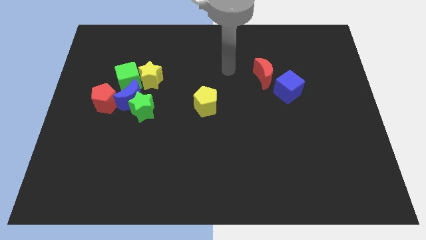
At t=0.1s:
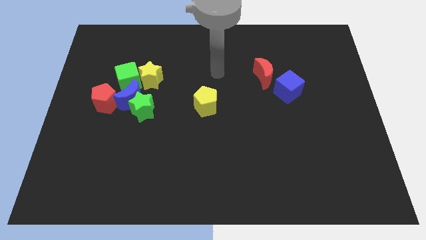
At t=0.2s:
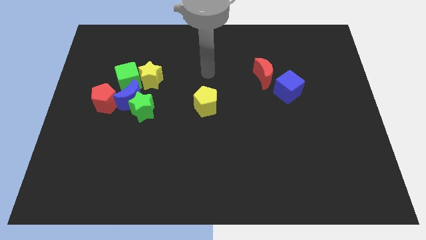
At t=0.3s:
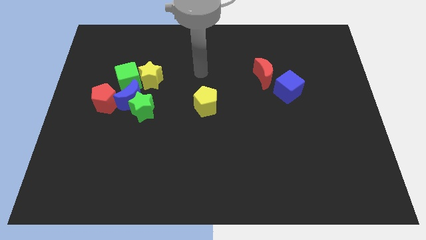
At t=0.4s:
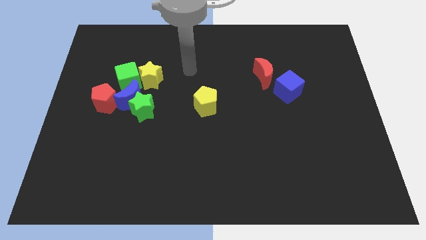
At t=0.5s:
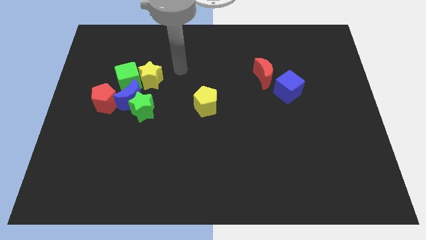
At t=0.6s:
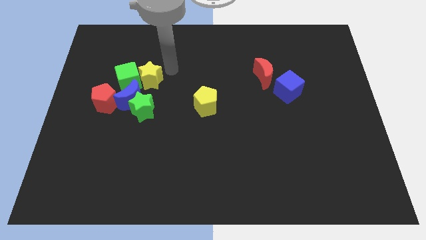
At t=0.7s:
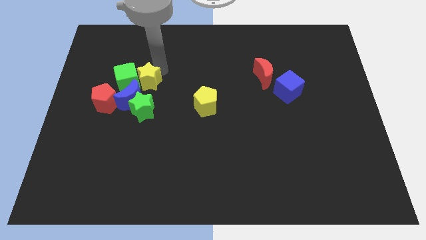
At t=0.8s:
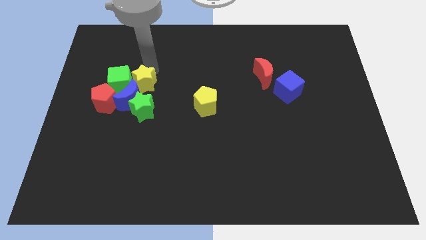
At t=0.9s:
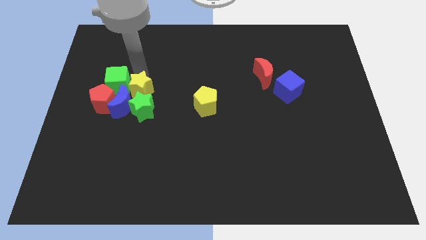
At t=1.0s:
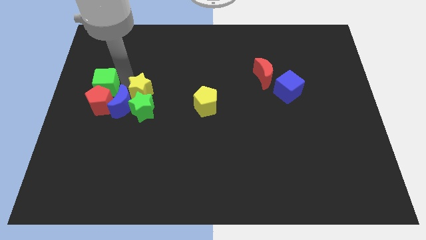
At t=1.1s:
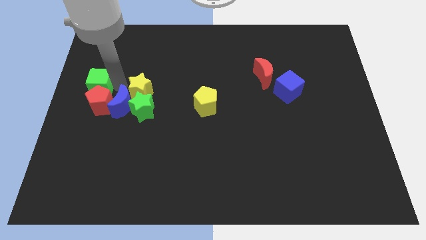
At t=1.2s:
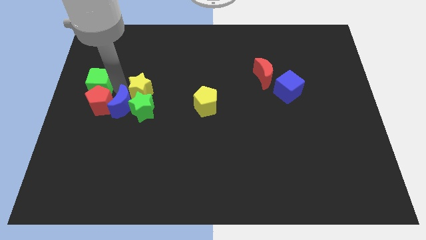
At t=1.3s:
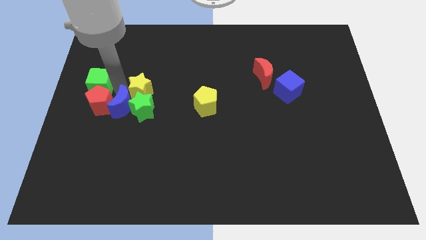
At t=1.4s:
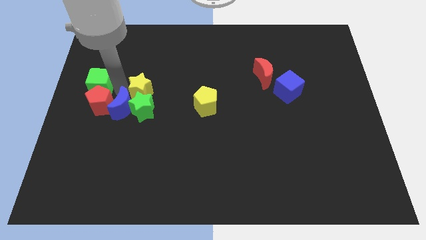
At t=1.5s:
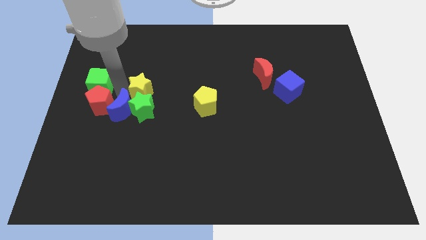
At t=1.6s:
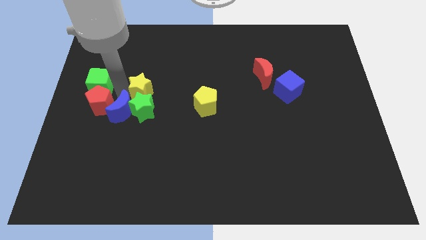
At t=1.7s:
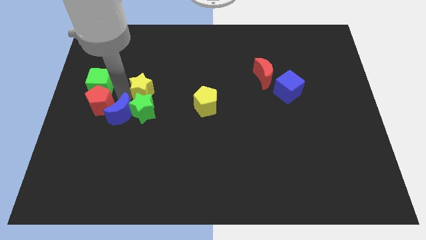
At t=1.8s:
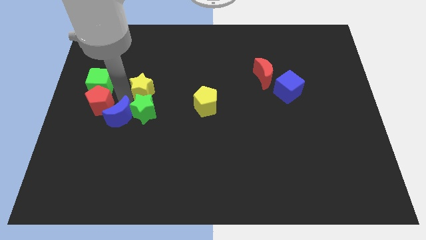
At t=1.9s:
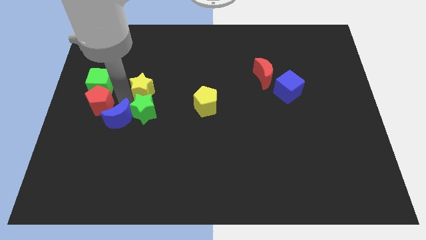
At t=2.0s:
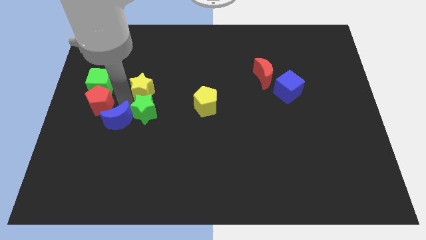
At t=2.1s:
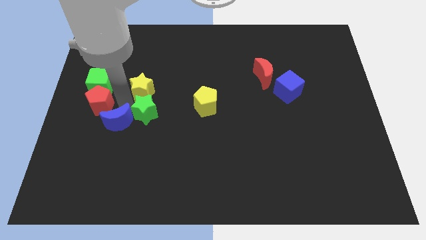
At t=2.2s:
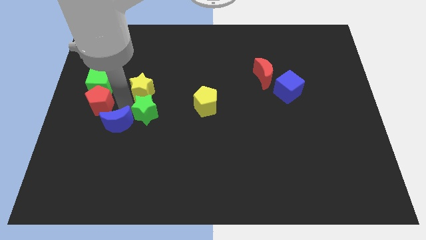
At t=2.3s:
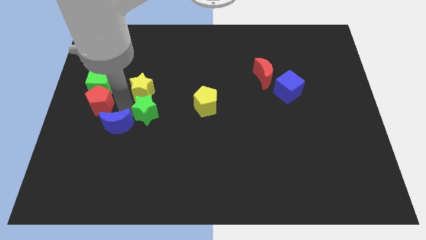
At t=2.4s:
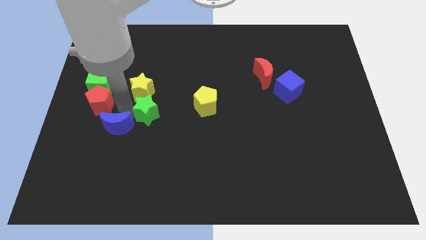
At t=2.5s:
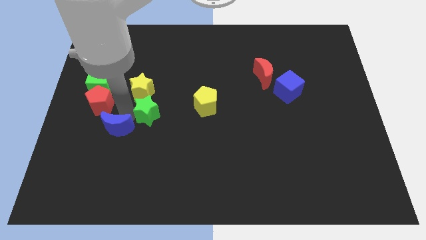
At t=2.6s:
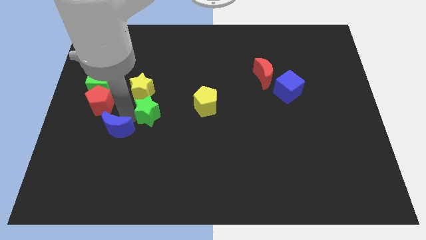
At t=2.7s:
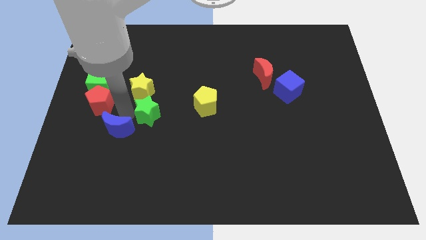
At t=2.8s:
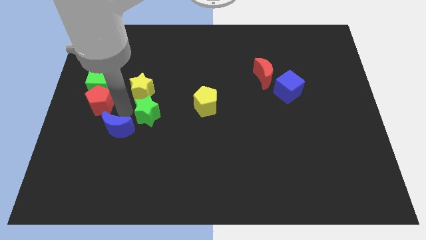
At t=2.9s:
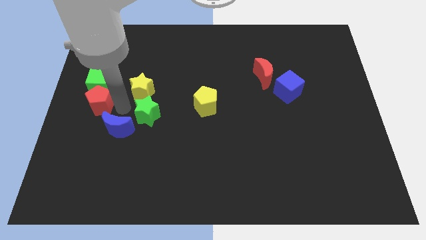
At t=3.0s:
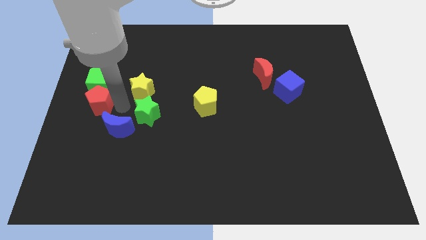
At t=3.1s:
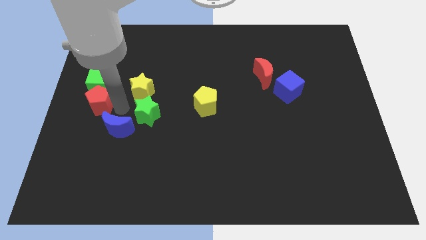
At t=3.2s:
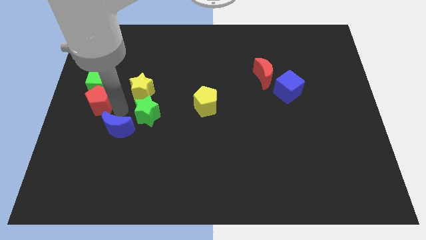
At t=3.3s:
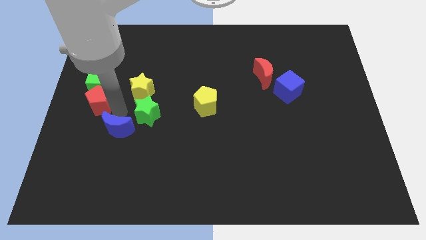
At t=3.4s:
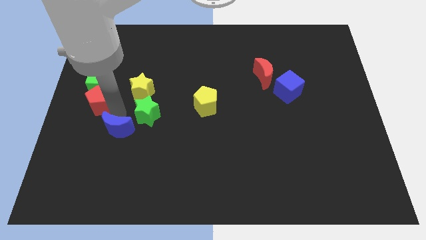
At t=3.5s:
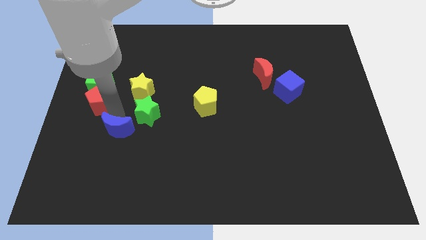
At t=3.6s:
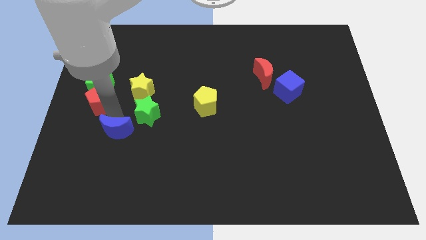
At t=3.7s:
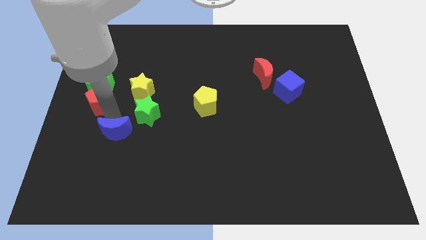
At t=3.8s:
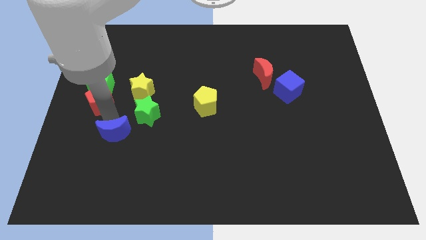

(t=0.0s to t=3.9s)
separate the blue moon from the group of blocks

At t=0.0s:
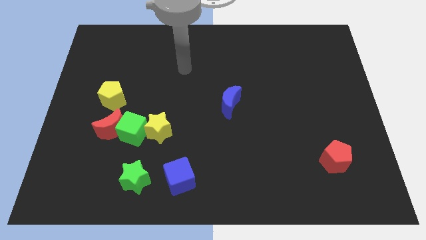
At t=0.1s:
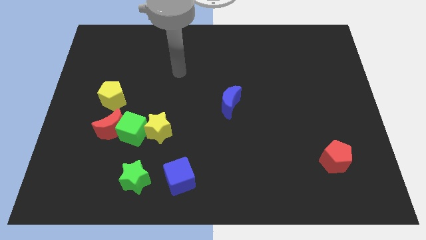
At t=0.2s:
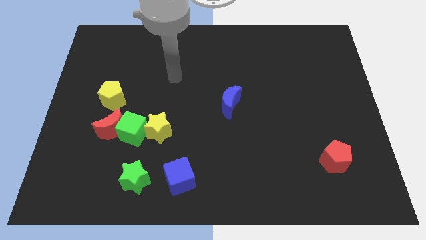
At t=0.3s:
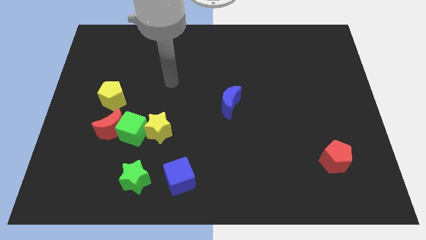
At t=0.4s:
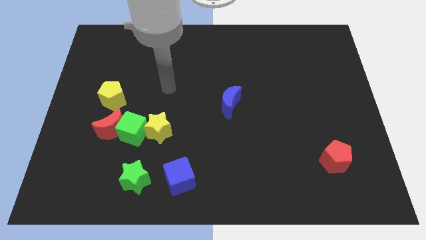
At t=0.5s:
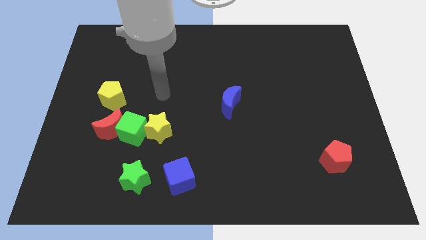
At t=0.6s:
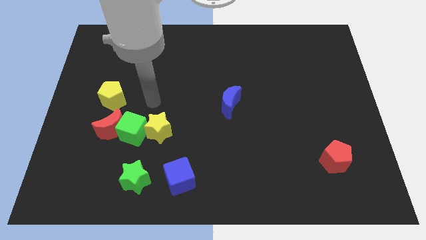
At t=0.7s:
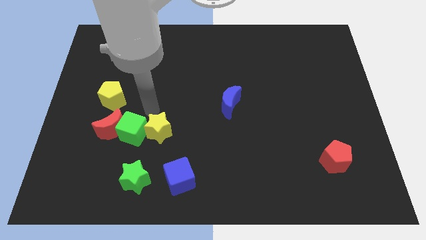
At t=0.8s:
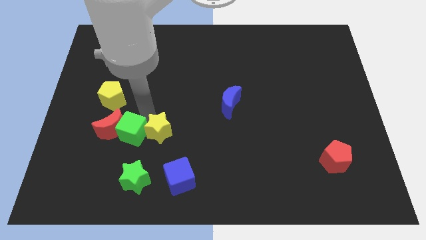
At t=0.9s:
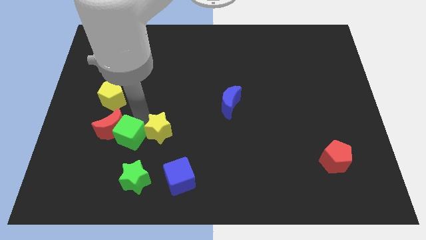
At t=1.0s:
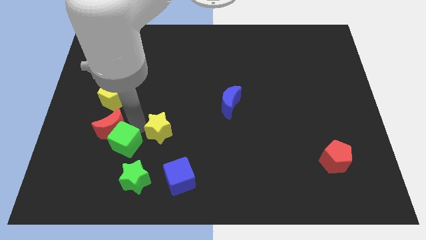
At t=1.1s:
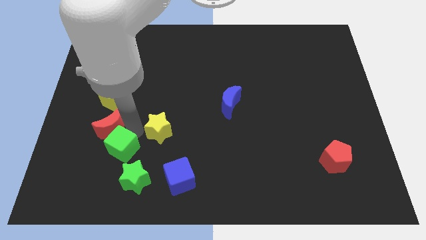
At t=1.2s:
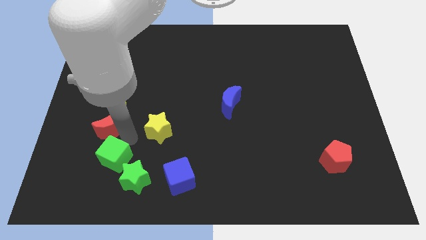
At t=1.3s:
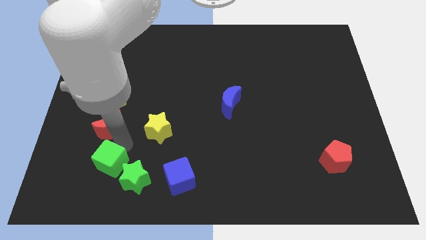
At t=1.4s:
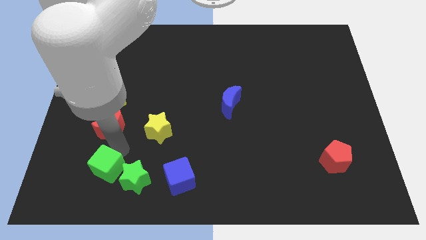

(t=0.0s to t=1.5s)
separate the green cube from the red moon and yellow star

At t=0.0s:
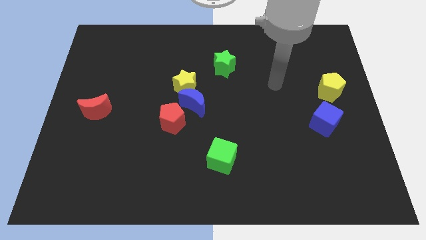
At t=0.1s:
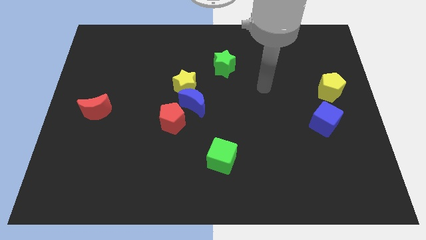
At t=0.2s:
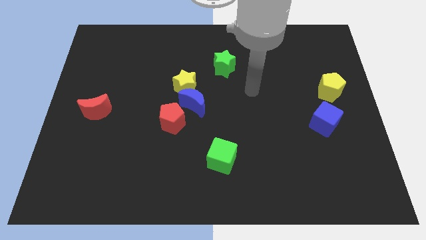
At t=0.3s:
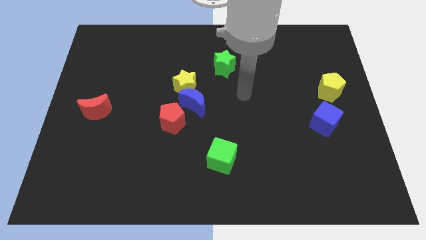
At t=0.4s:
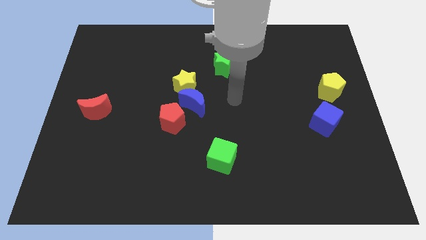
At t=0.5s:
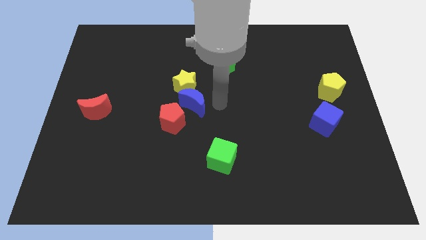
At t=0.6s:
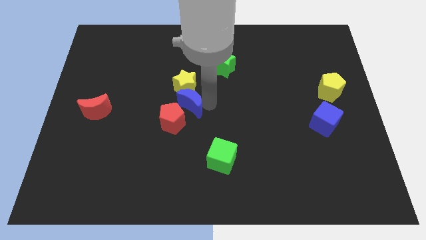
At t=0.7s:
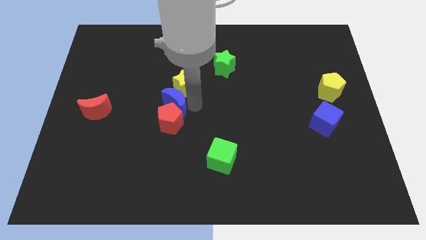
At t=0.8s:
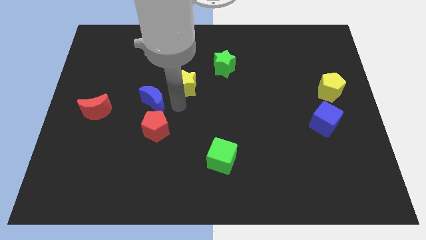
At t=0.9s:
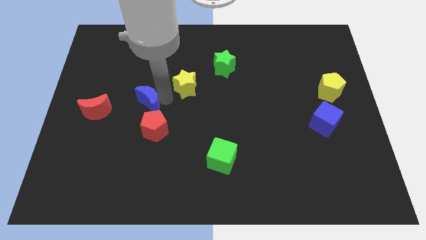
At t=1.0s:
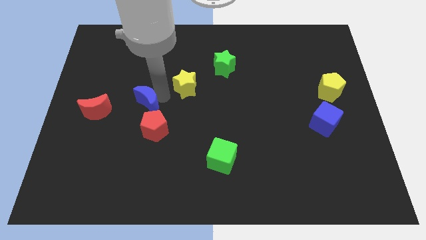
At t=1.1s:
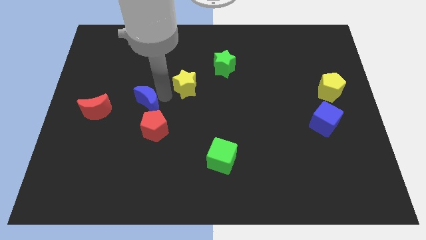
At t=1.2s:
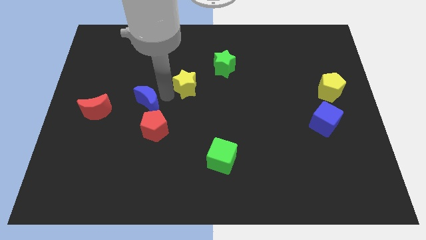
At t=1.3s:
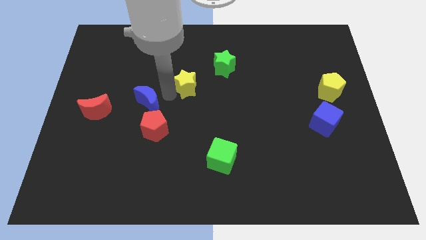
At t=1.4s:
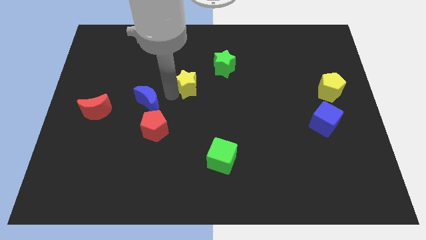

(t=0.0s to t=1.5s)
pull the yellow star apart from the blue moon

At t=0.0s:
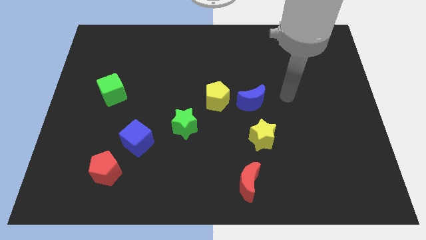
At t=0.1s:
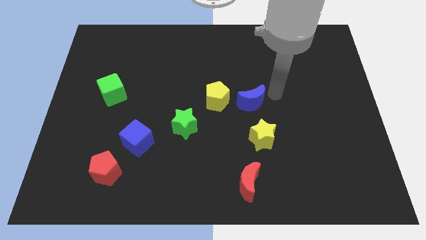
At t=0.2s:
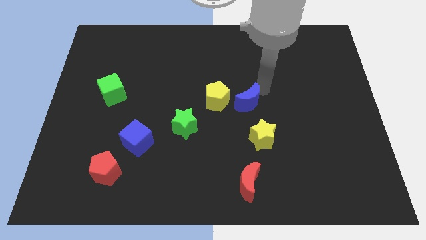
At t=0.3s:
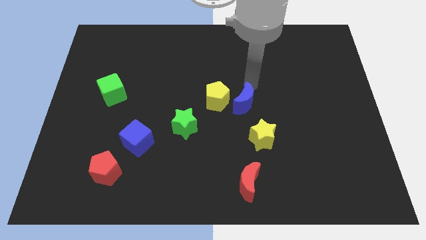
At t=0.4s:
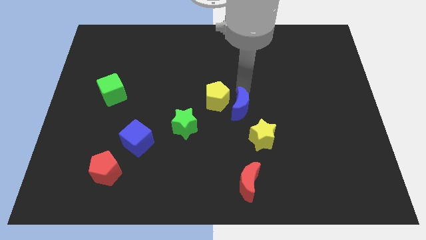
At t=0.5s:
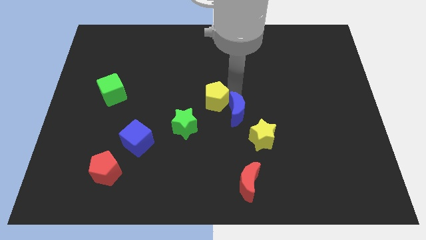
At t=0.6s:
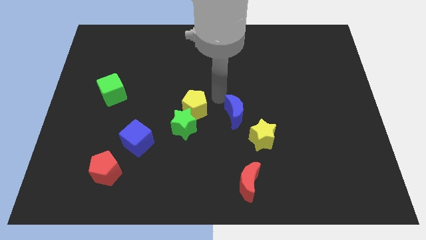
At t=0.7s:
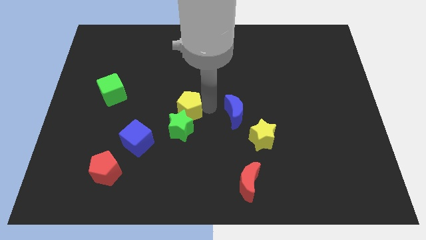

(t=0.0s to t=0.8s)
separate the blue moon from the yellow pentagon

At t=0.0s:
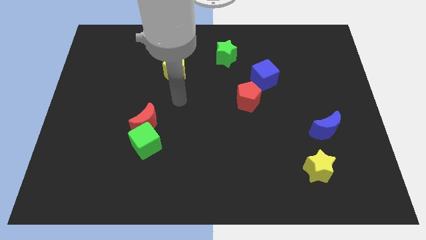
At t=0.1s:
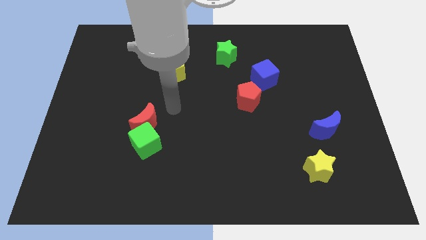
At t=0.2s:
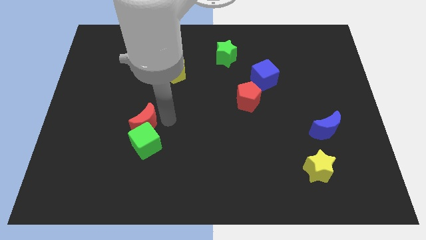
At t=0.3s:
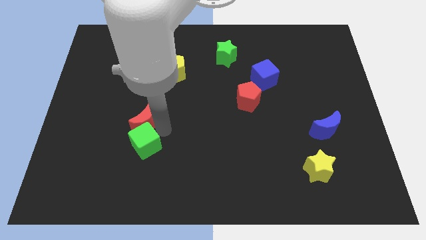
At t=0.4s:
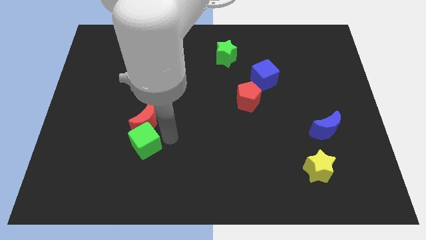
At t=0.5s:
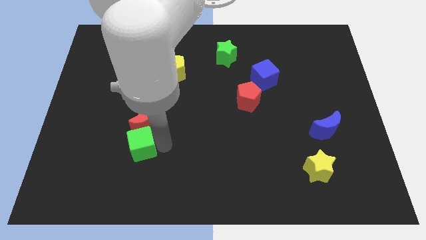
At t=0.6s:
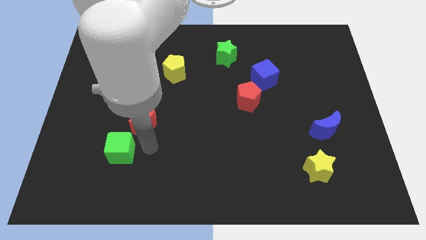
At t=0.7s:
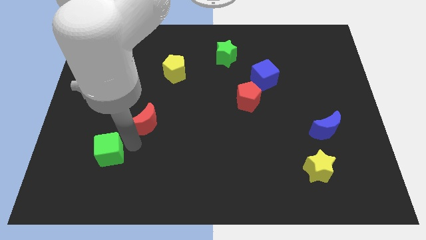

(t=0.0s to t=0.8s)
separate the red moon from the green cube

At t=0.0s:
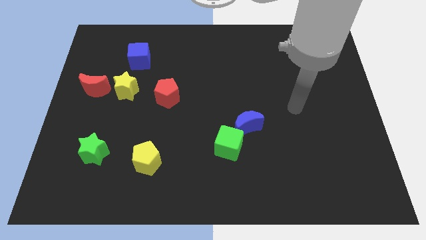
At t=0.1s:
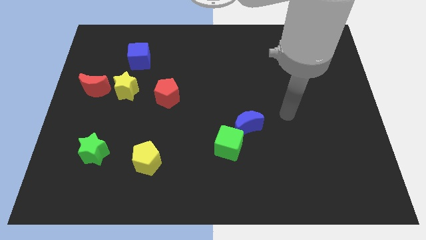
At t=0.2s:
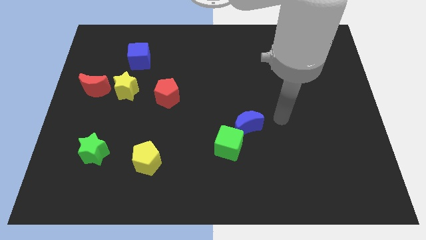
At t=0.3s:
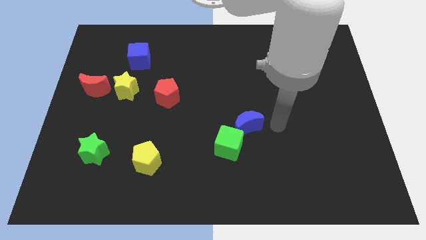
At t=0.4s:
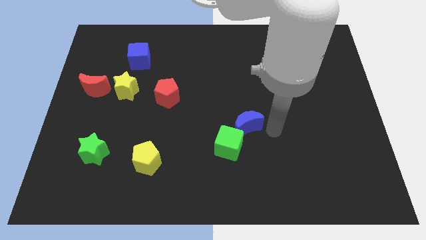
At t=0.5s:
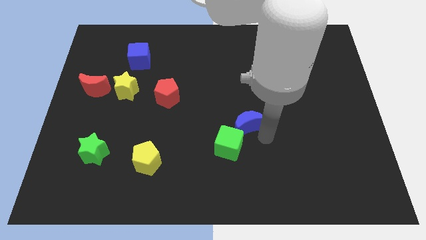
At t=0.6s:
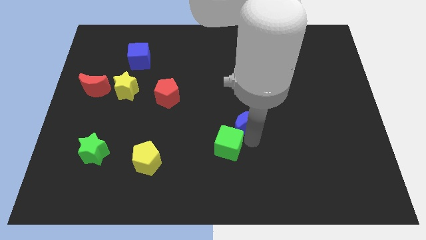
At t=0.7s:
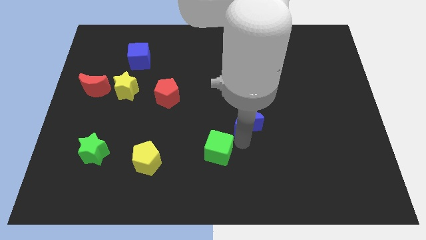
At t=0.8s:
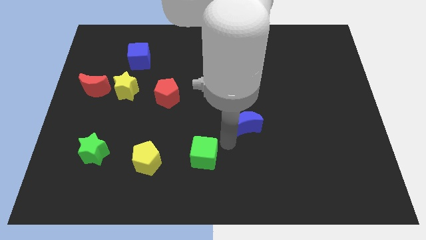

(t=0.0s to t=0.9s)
pull the blue moon apart from the green cube
